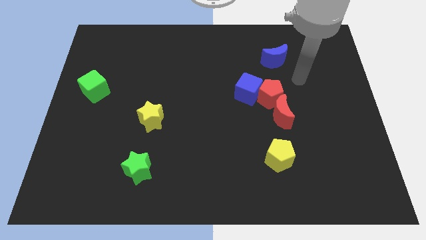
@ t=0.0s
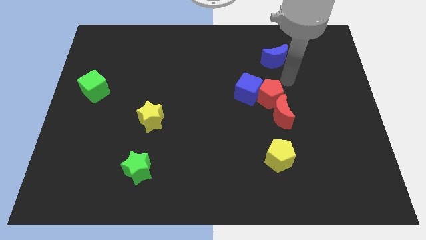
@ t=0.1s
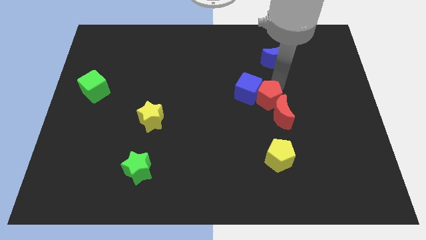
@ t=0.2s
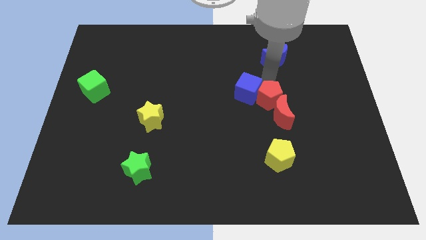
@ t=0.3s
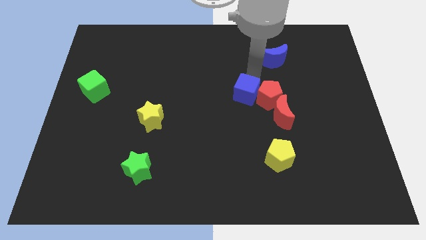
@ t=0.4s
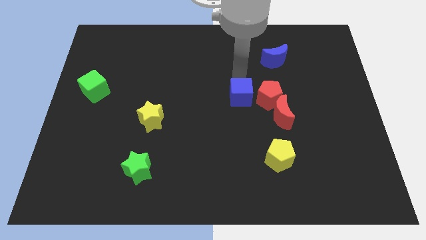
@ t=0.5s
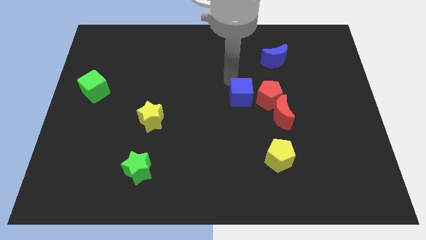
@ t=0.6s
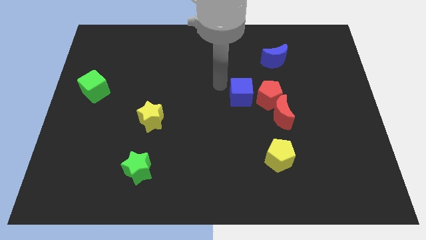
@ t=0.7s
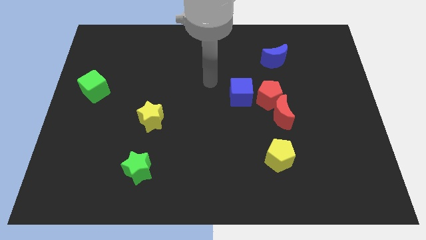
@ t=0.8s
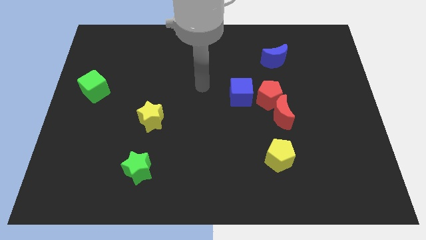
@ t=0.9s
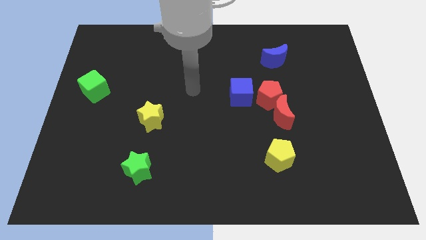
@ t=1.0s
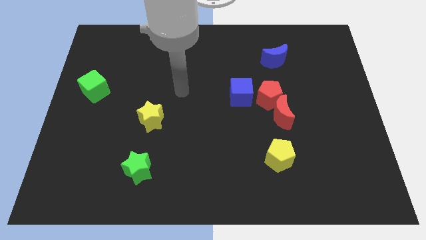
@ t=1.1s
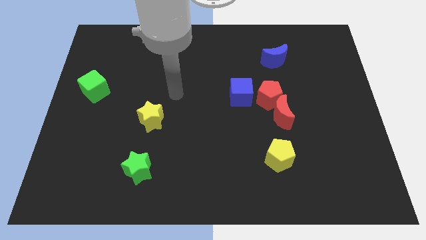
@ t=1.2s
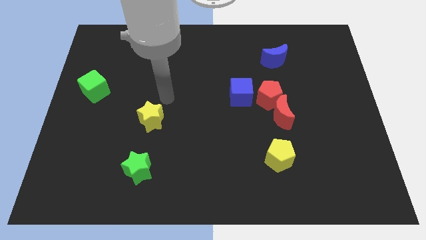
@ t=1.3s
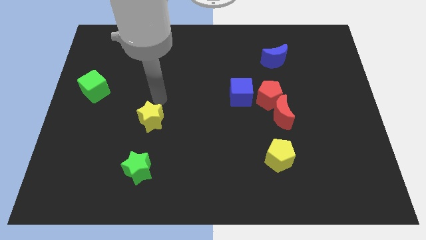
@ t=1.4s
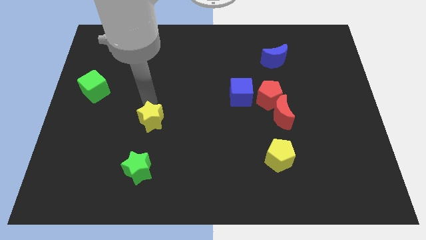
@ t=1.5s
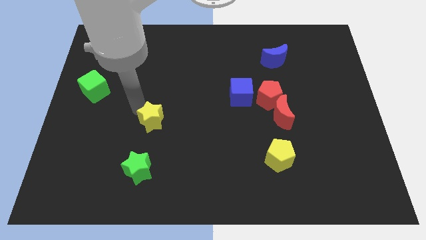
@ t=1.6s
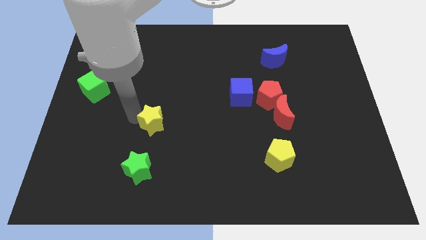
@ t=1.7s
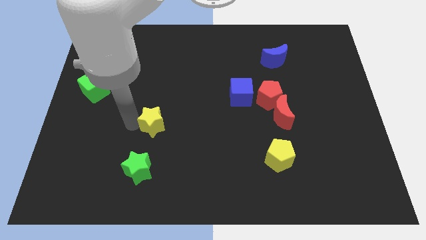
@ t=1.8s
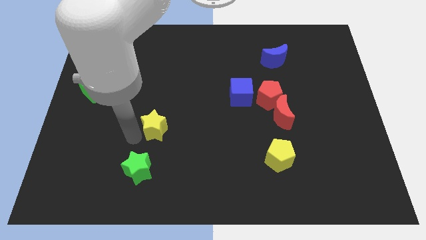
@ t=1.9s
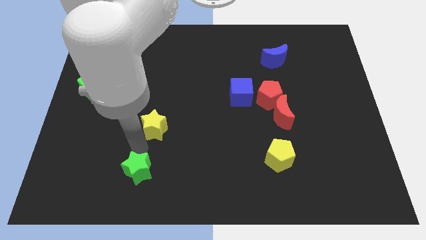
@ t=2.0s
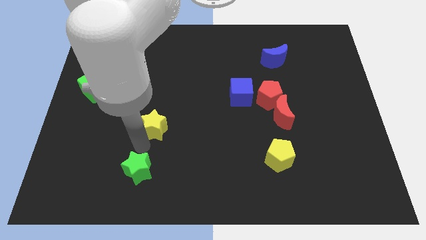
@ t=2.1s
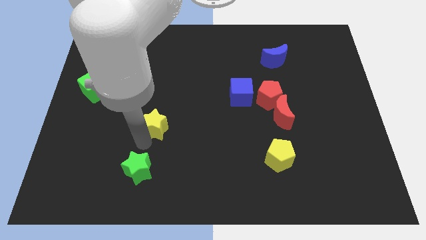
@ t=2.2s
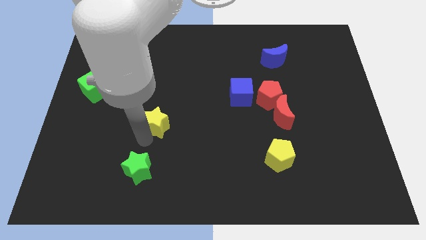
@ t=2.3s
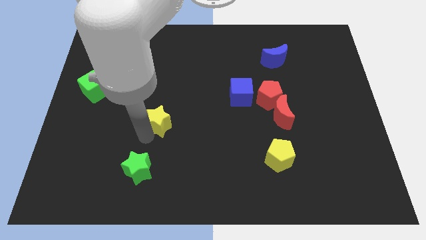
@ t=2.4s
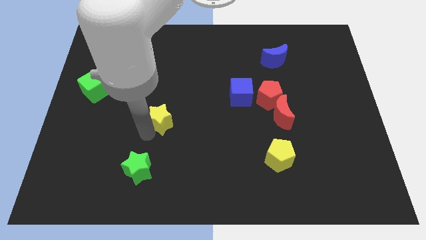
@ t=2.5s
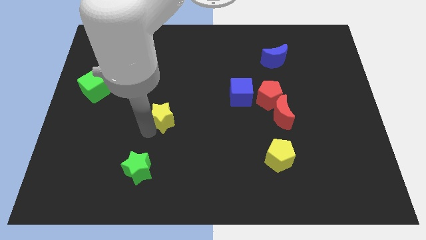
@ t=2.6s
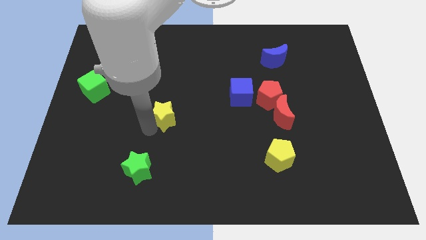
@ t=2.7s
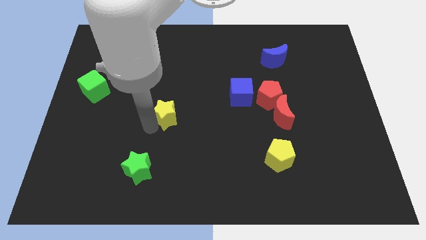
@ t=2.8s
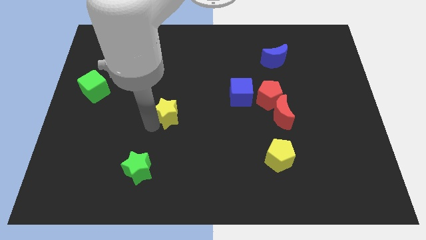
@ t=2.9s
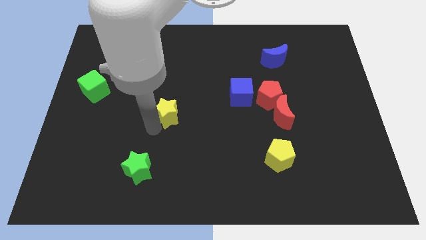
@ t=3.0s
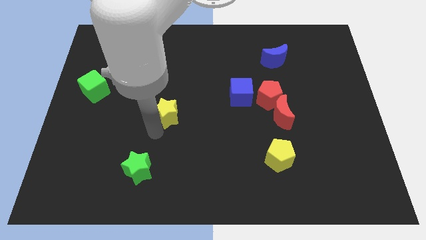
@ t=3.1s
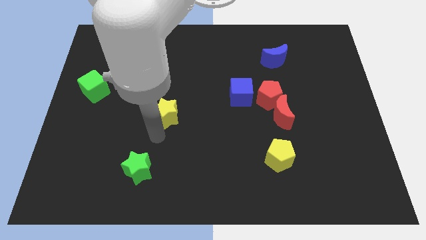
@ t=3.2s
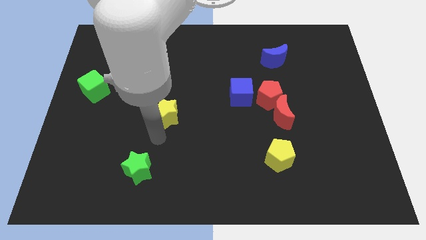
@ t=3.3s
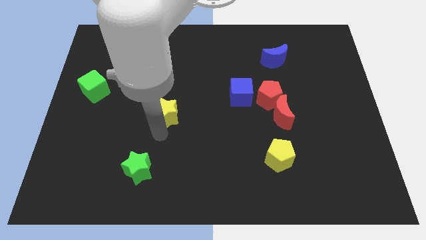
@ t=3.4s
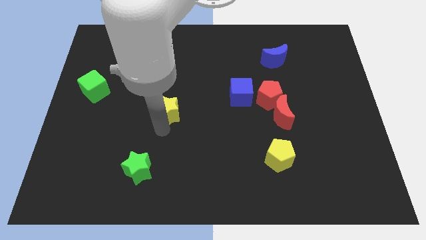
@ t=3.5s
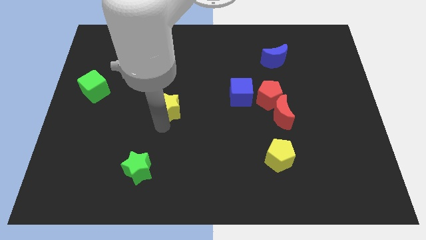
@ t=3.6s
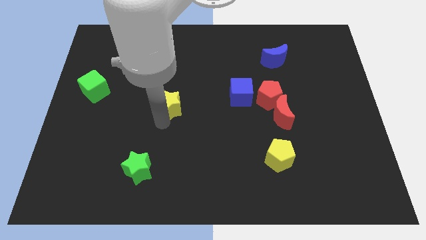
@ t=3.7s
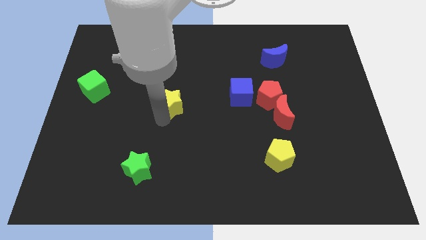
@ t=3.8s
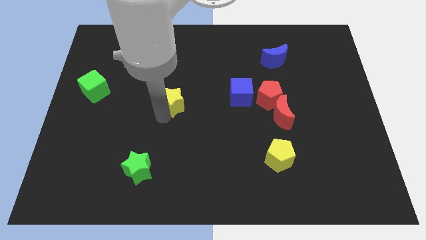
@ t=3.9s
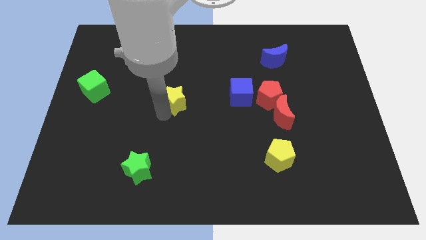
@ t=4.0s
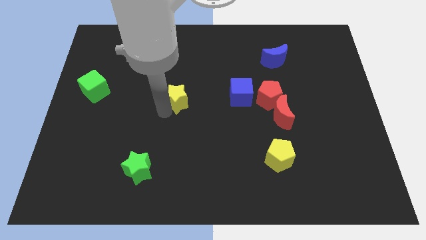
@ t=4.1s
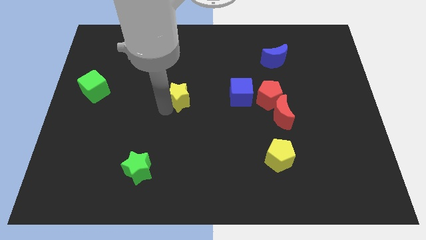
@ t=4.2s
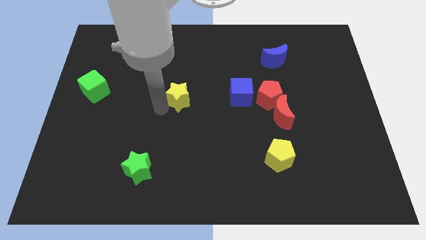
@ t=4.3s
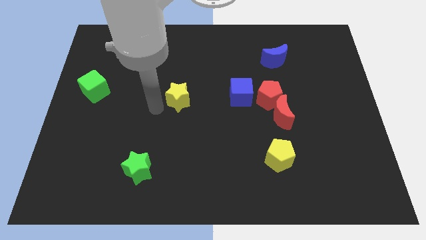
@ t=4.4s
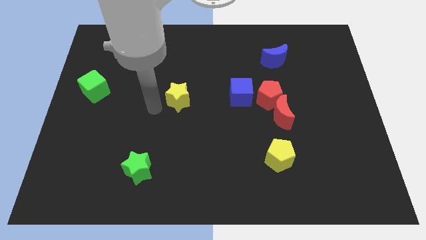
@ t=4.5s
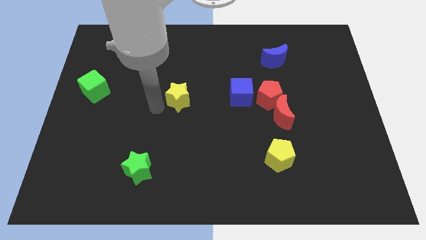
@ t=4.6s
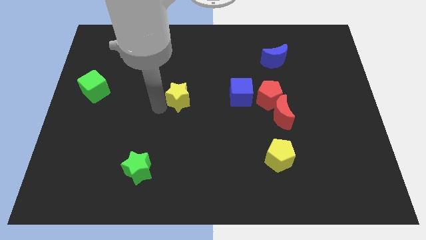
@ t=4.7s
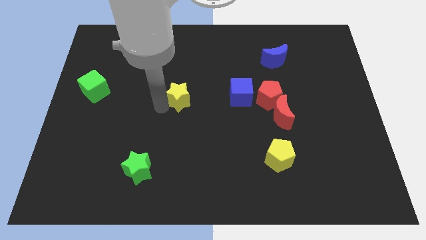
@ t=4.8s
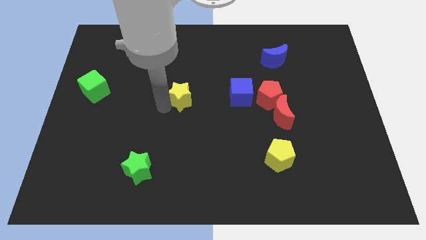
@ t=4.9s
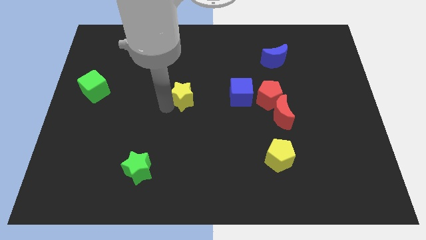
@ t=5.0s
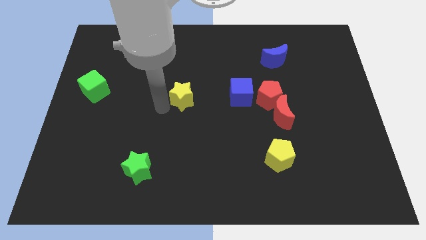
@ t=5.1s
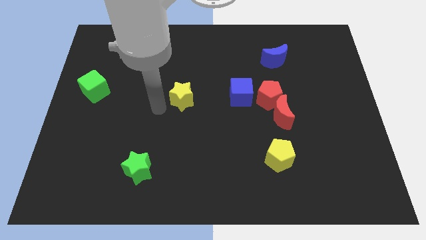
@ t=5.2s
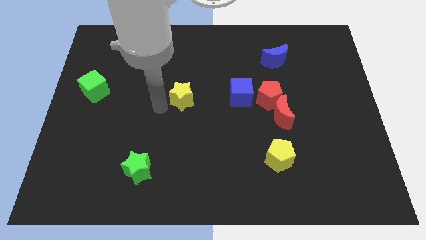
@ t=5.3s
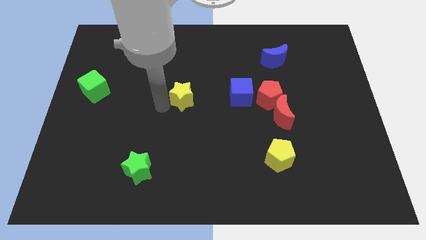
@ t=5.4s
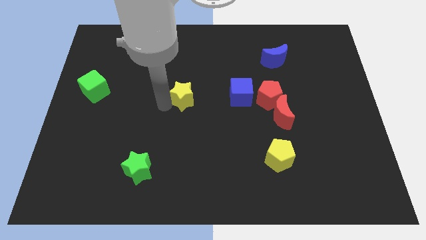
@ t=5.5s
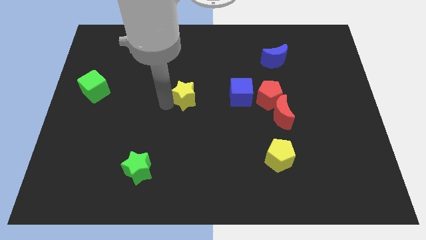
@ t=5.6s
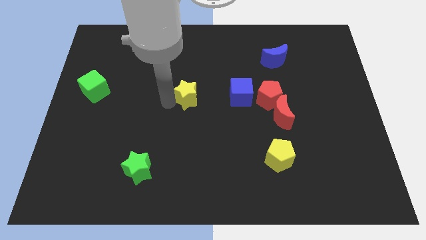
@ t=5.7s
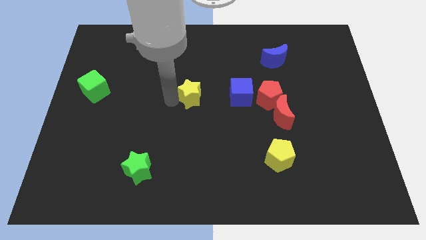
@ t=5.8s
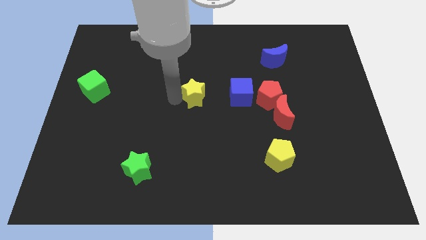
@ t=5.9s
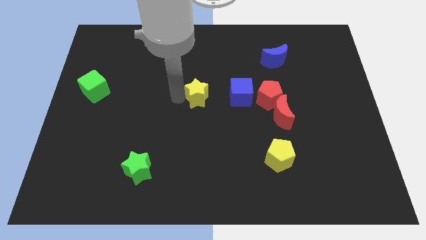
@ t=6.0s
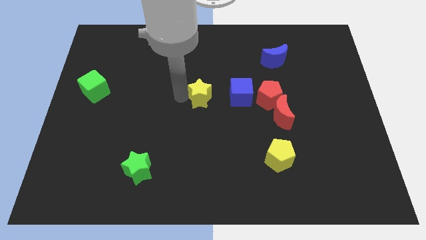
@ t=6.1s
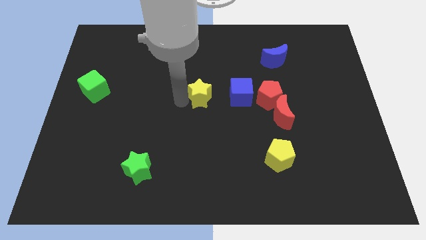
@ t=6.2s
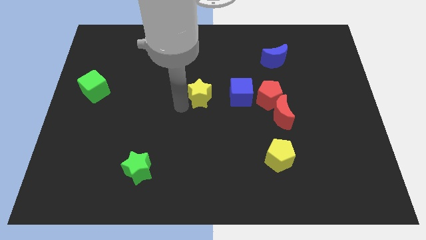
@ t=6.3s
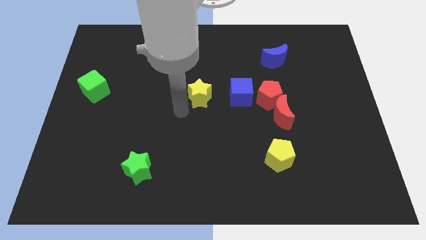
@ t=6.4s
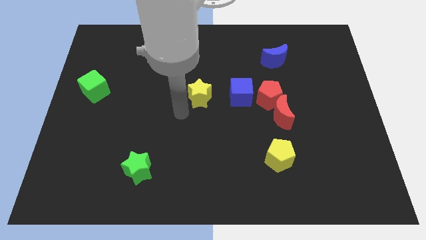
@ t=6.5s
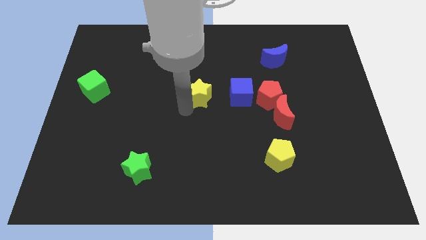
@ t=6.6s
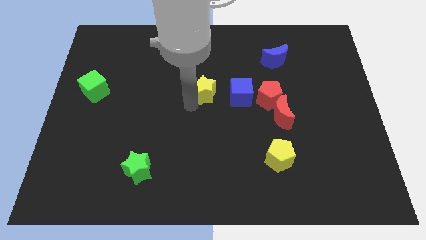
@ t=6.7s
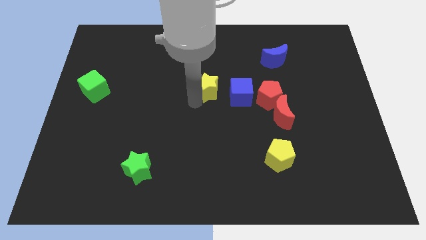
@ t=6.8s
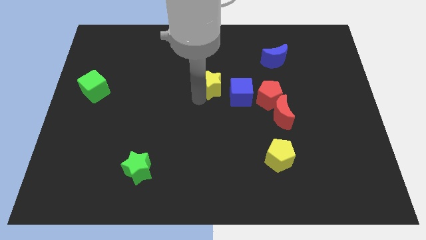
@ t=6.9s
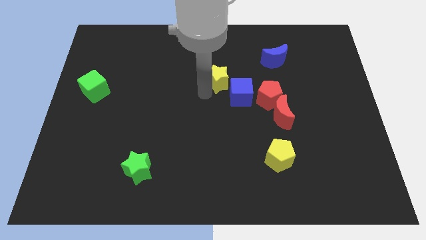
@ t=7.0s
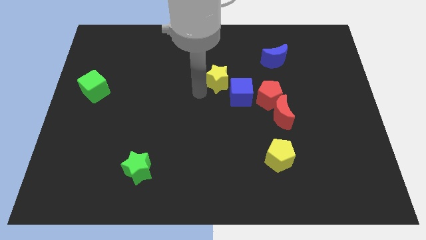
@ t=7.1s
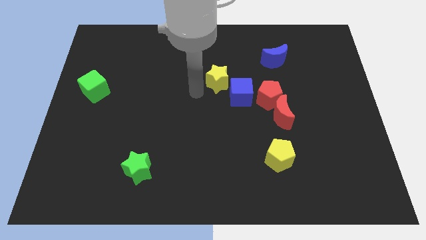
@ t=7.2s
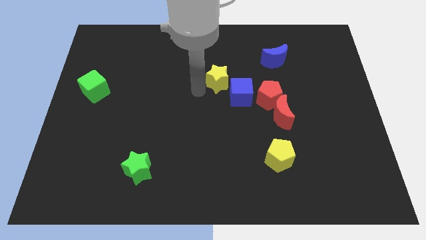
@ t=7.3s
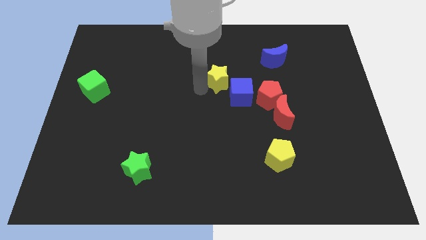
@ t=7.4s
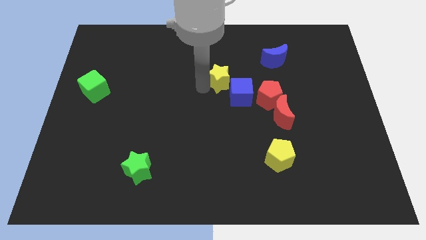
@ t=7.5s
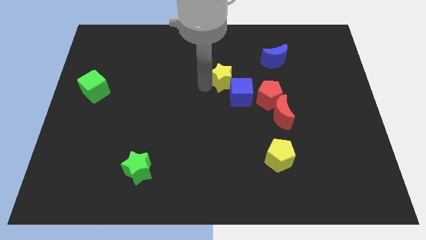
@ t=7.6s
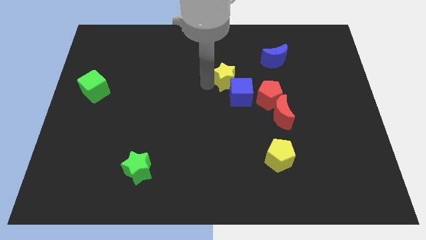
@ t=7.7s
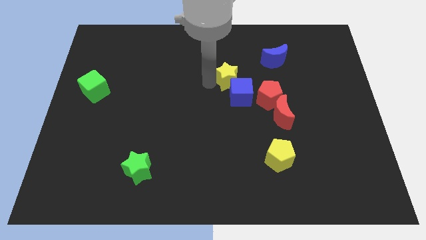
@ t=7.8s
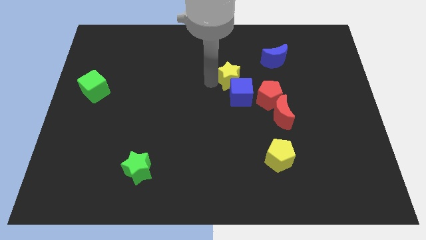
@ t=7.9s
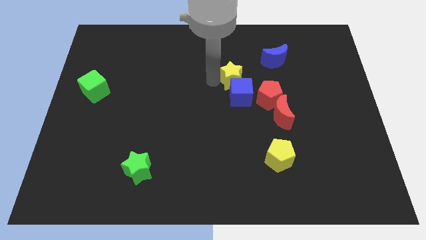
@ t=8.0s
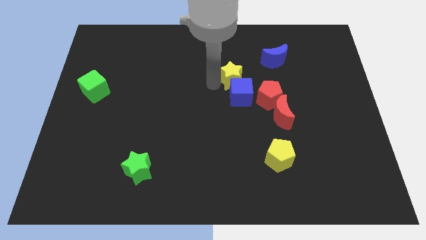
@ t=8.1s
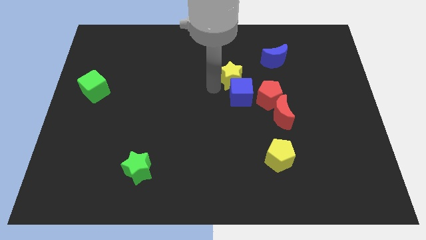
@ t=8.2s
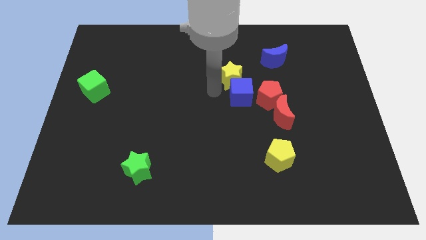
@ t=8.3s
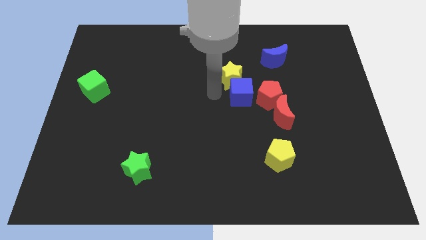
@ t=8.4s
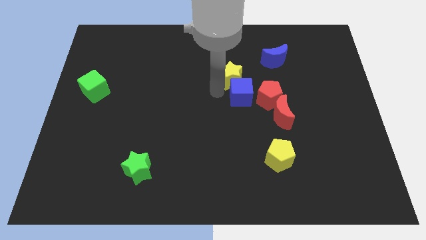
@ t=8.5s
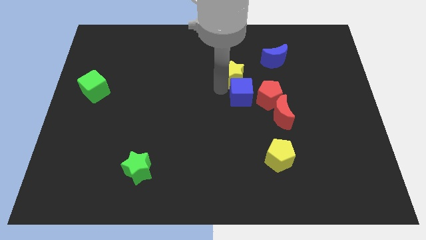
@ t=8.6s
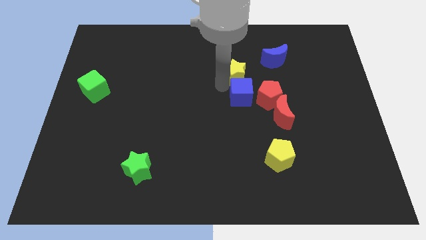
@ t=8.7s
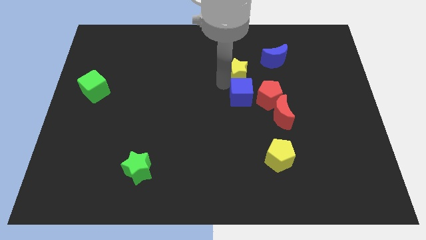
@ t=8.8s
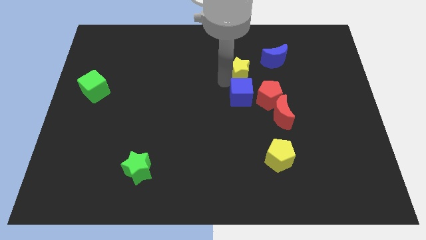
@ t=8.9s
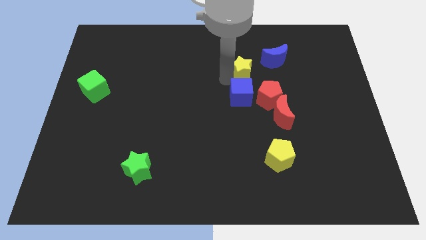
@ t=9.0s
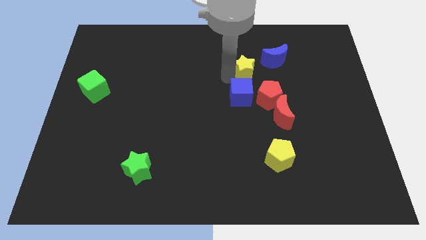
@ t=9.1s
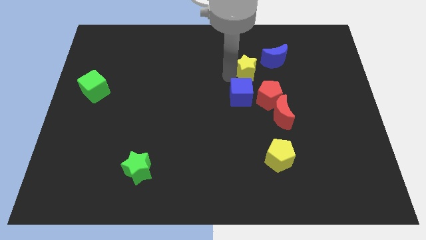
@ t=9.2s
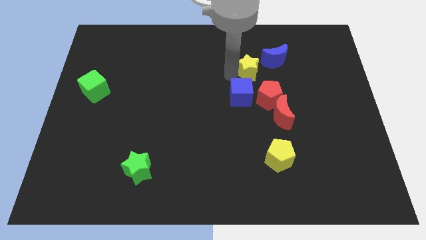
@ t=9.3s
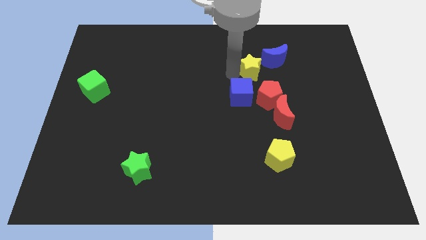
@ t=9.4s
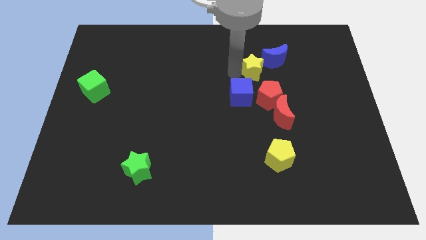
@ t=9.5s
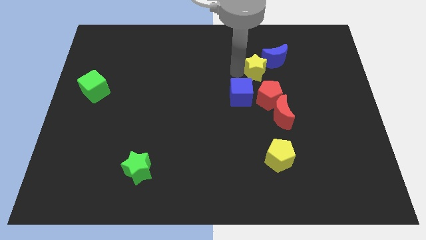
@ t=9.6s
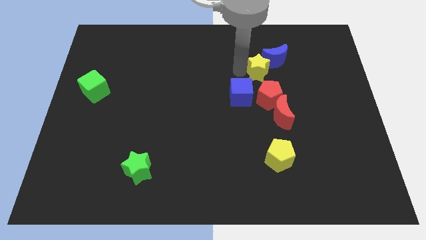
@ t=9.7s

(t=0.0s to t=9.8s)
put the yellow star next to the blue moon
